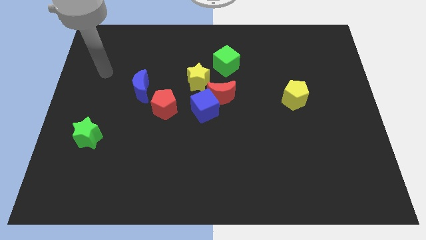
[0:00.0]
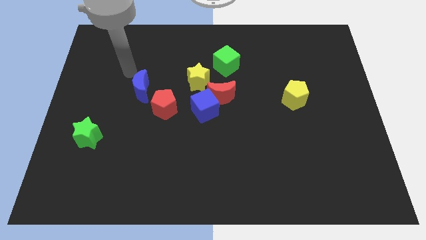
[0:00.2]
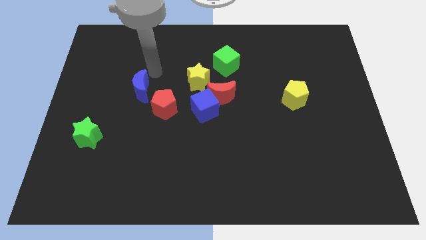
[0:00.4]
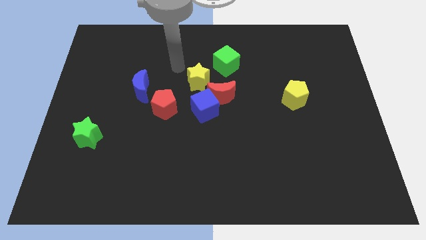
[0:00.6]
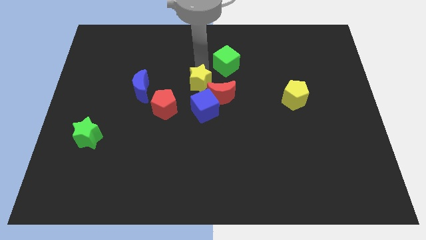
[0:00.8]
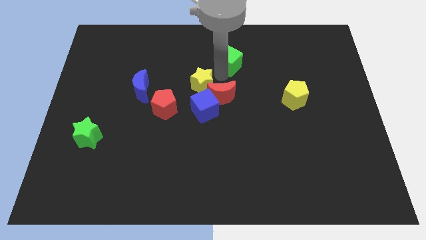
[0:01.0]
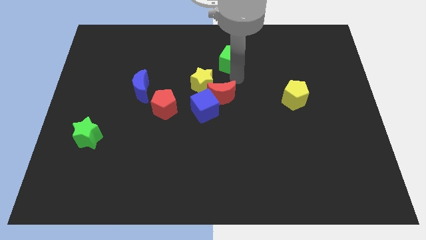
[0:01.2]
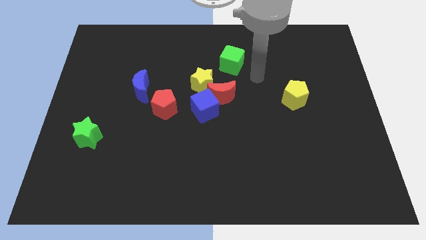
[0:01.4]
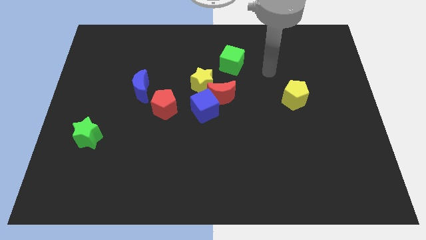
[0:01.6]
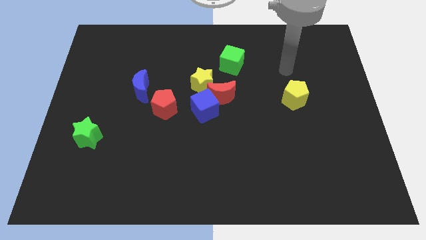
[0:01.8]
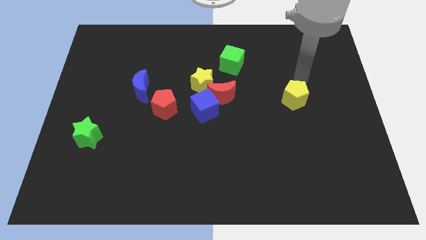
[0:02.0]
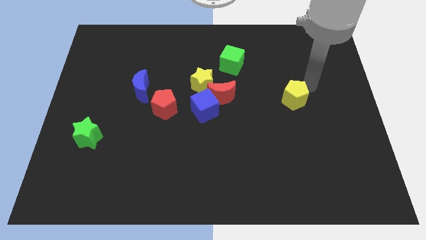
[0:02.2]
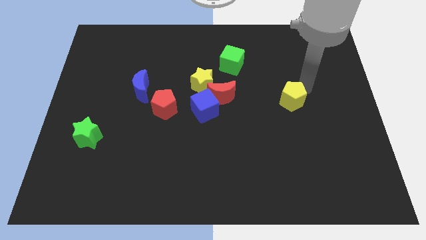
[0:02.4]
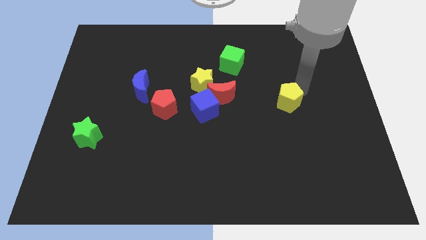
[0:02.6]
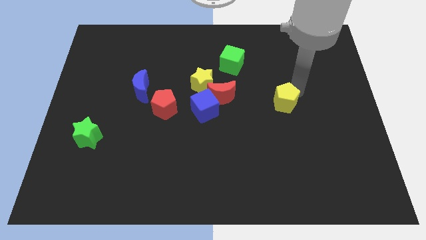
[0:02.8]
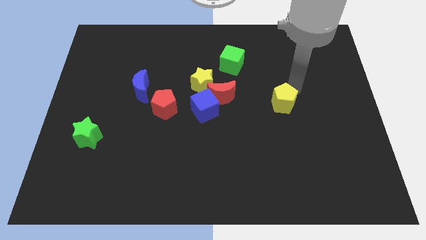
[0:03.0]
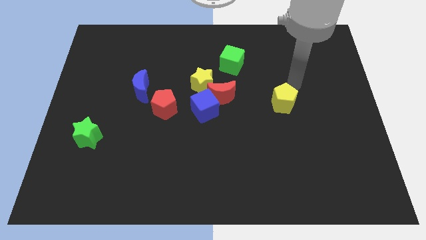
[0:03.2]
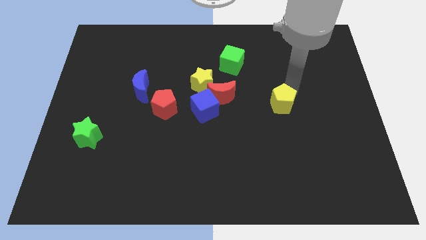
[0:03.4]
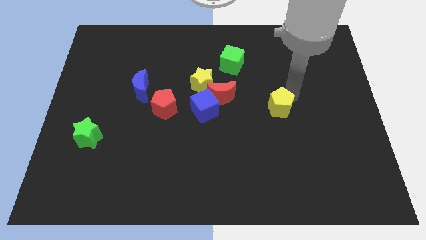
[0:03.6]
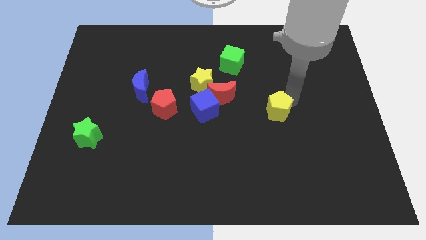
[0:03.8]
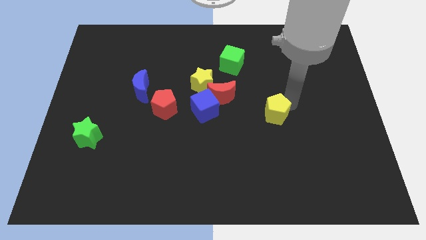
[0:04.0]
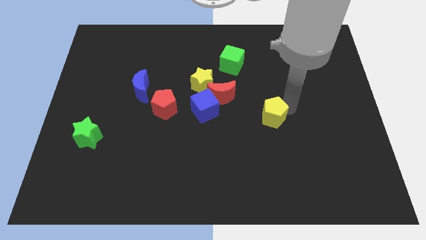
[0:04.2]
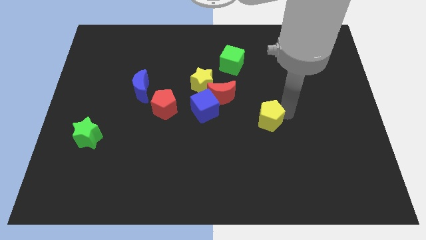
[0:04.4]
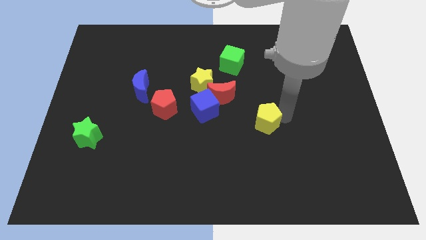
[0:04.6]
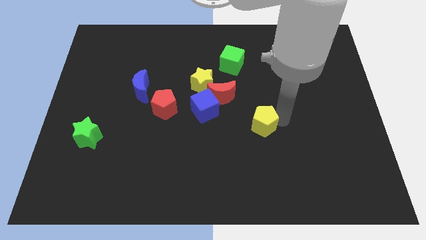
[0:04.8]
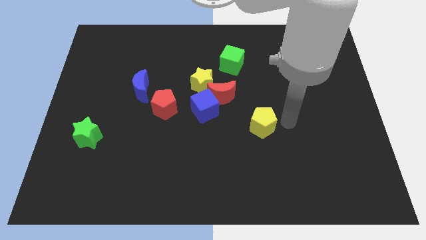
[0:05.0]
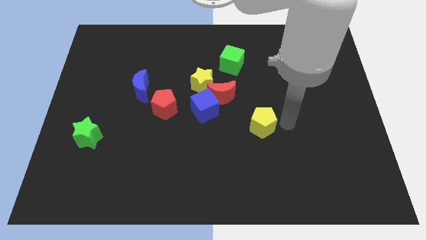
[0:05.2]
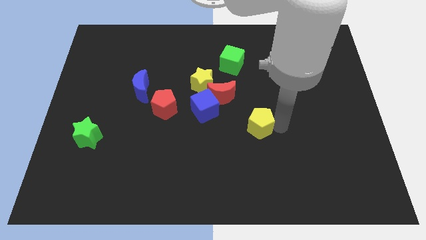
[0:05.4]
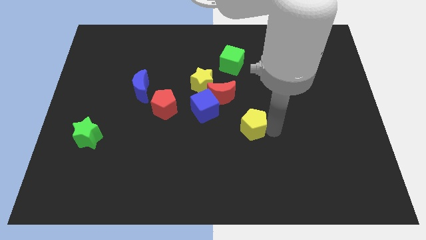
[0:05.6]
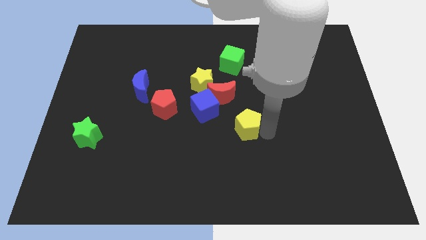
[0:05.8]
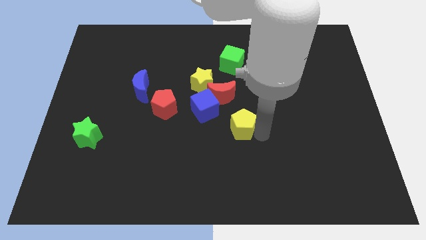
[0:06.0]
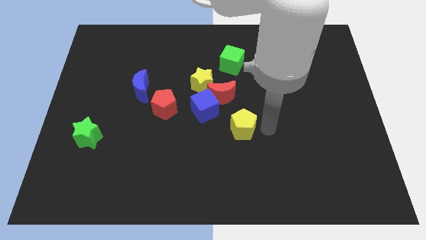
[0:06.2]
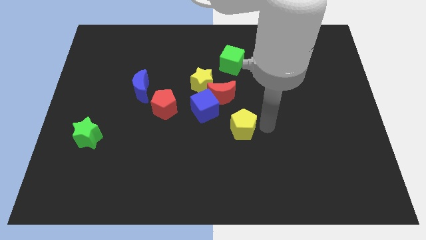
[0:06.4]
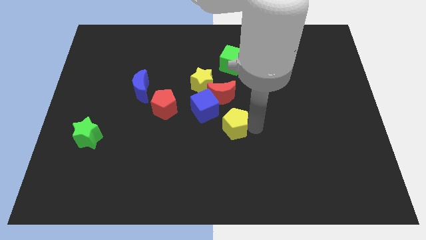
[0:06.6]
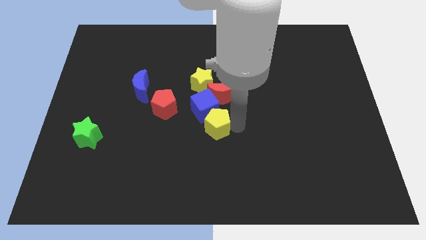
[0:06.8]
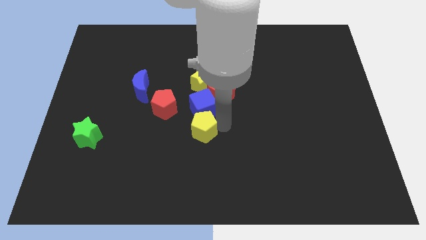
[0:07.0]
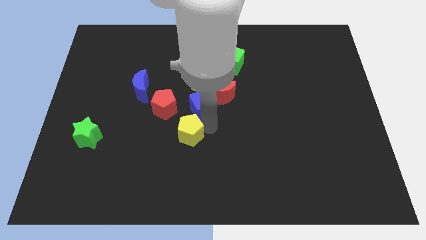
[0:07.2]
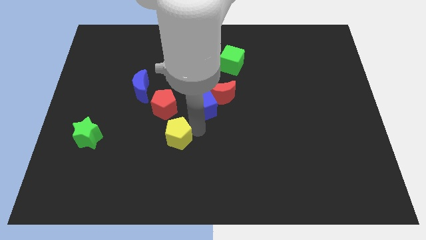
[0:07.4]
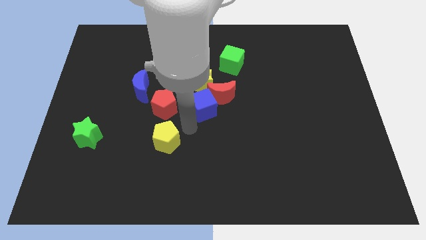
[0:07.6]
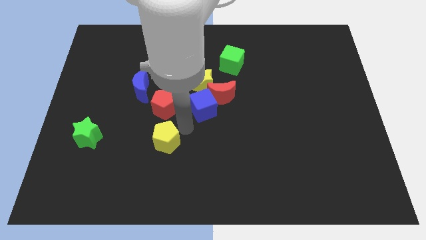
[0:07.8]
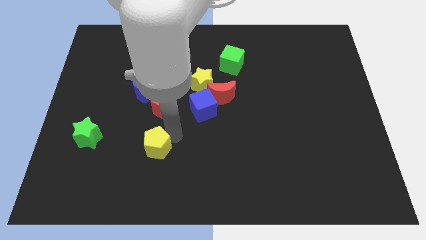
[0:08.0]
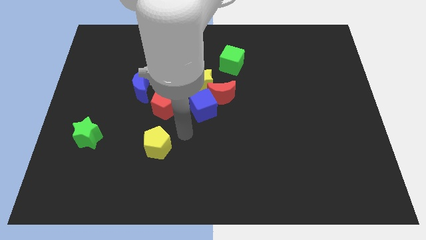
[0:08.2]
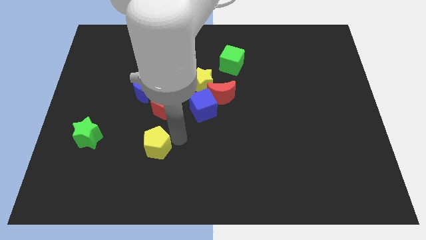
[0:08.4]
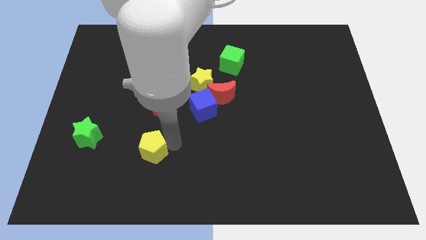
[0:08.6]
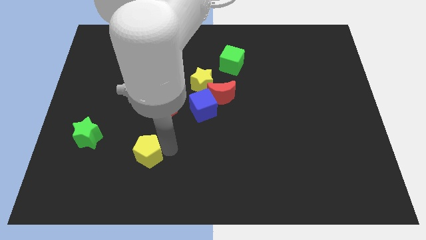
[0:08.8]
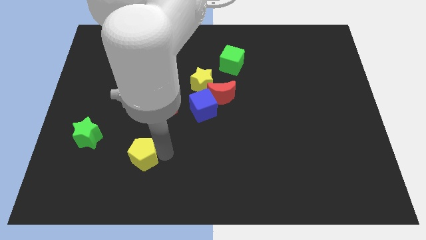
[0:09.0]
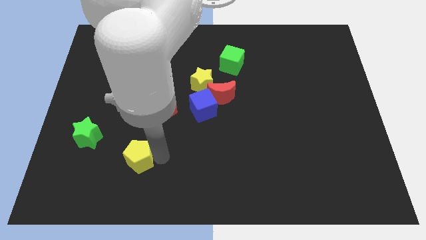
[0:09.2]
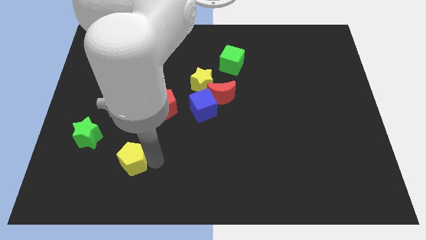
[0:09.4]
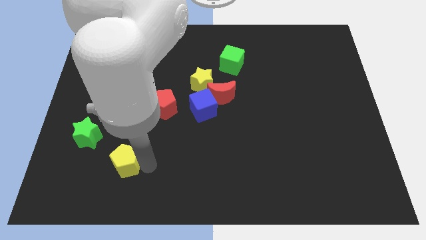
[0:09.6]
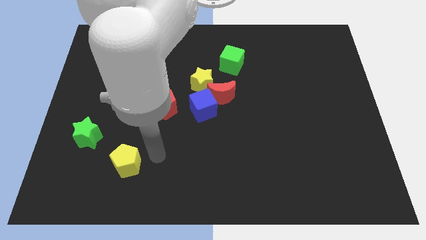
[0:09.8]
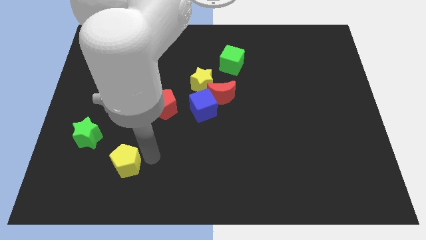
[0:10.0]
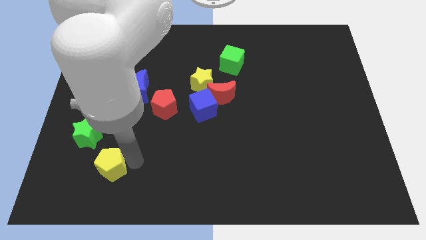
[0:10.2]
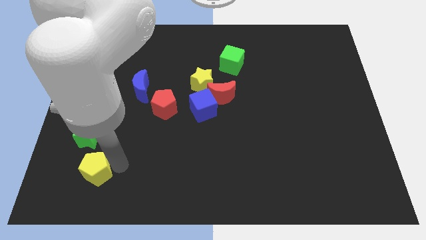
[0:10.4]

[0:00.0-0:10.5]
put the yellow pentagon below the green star

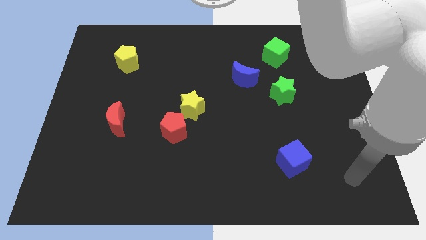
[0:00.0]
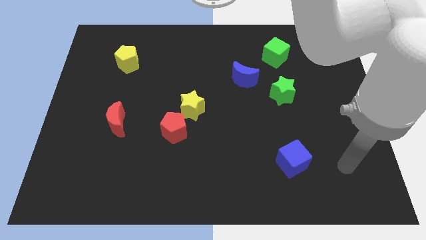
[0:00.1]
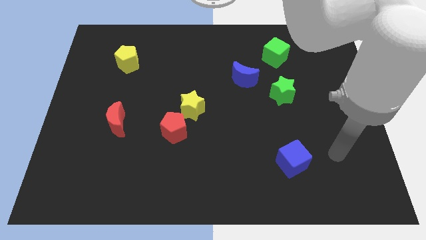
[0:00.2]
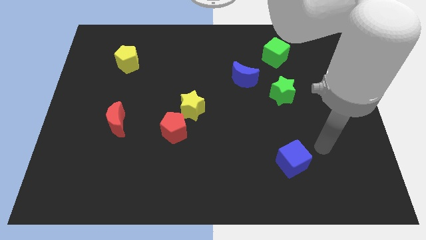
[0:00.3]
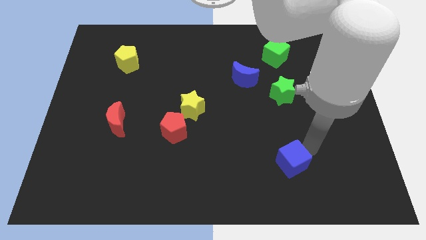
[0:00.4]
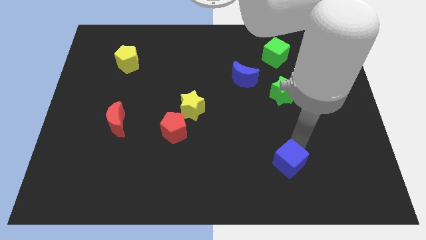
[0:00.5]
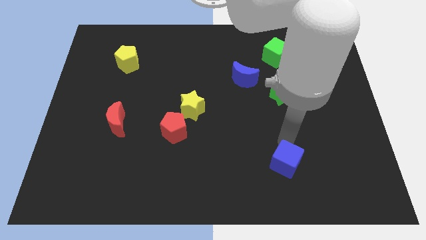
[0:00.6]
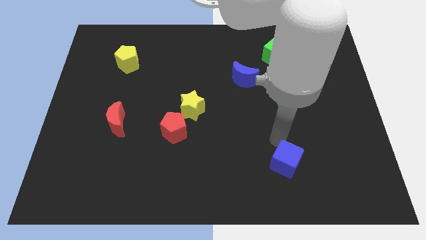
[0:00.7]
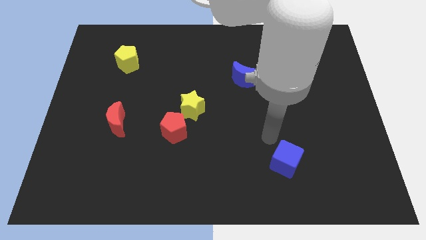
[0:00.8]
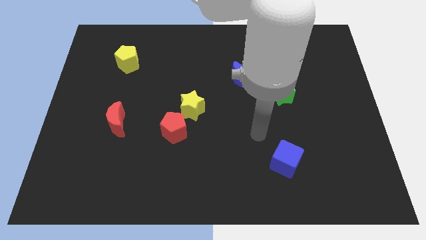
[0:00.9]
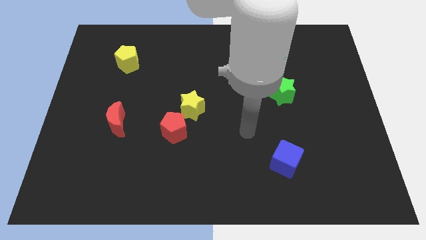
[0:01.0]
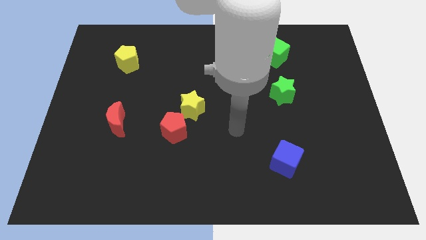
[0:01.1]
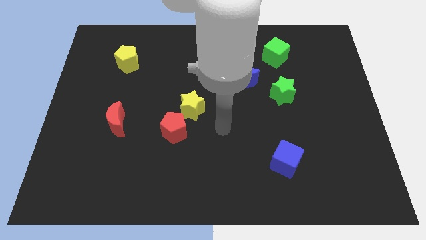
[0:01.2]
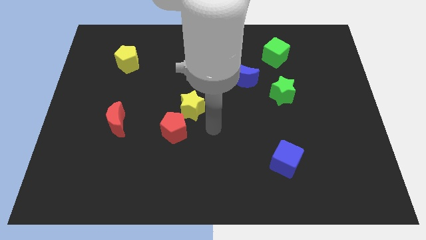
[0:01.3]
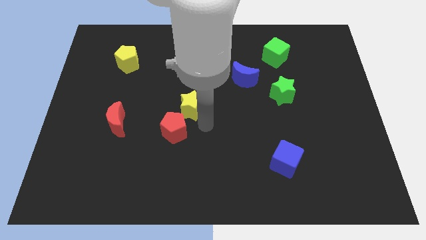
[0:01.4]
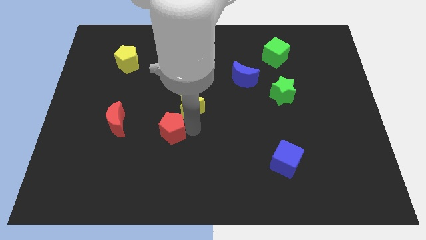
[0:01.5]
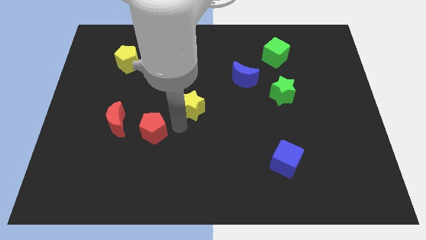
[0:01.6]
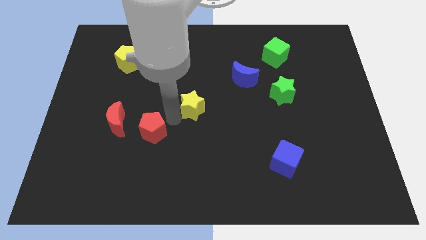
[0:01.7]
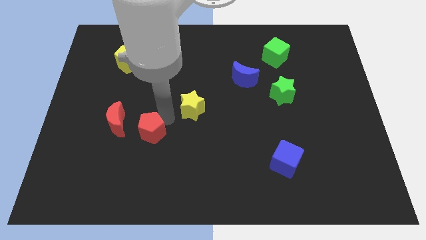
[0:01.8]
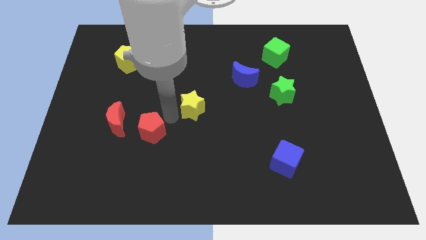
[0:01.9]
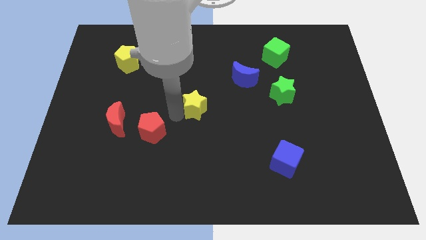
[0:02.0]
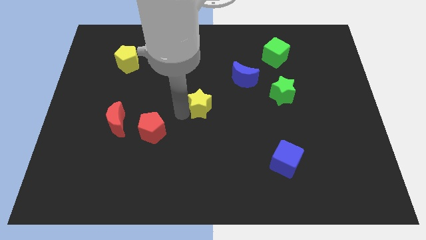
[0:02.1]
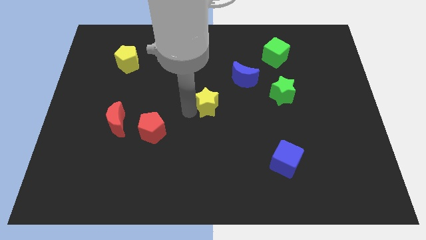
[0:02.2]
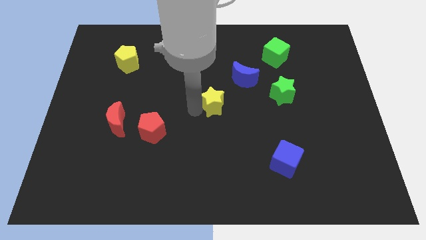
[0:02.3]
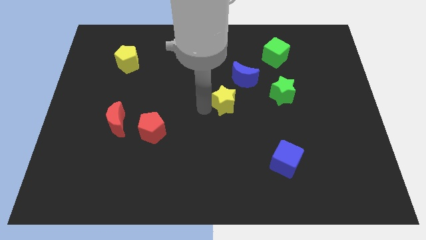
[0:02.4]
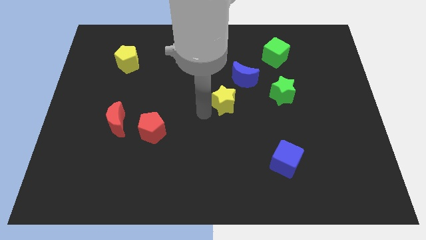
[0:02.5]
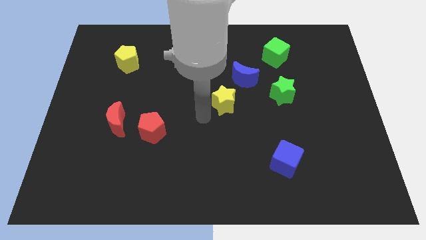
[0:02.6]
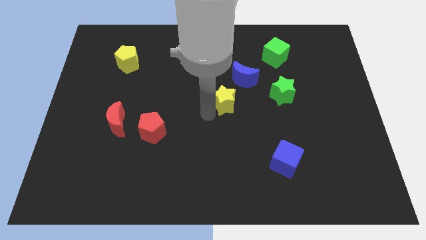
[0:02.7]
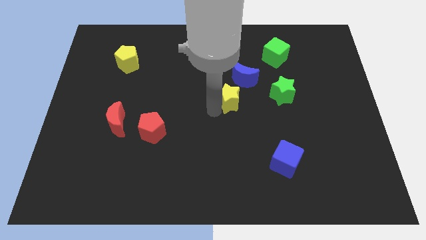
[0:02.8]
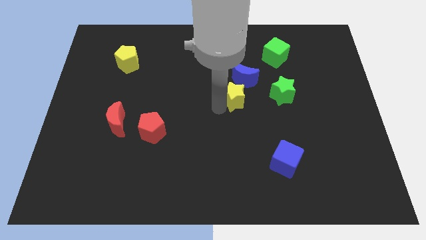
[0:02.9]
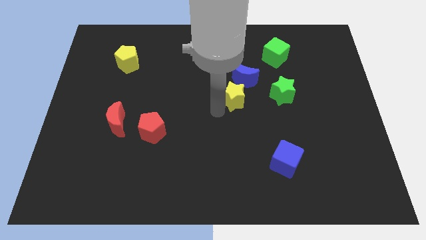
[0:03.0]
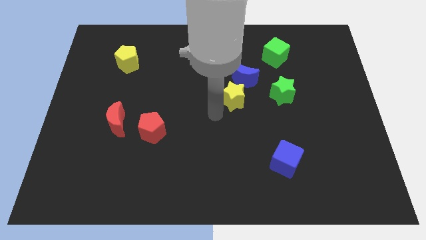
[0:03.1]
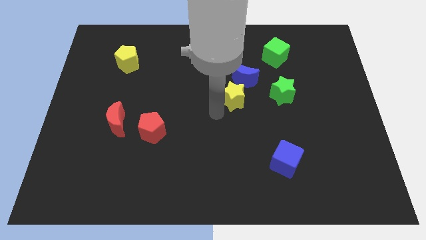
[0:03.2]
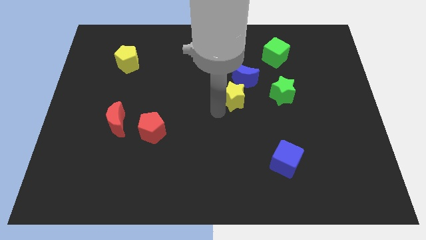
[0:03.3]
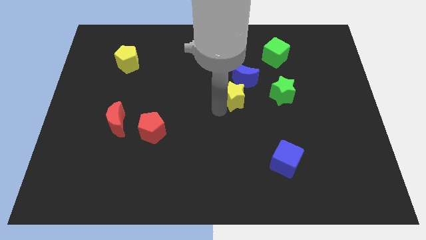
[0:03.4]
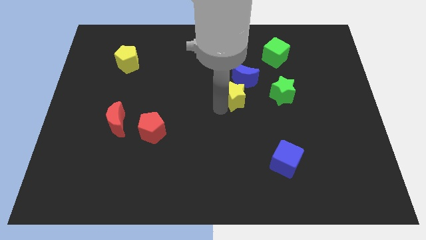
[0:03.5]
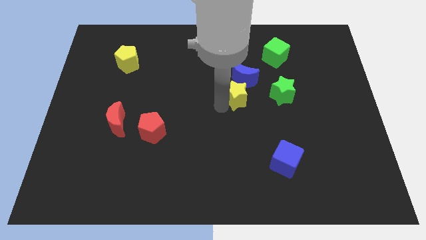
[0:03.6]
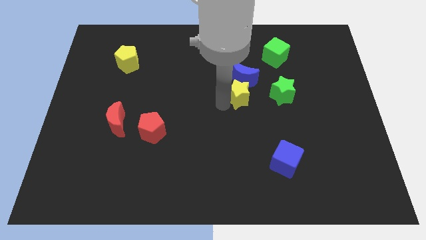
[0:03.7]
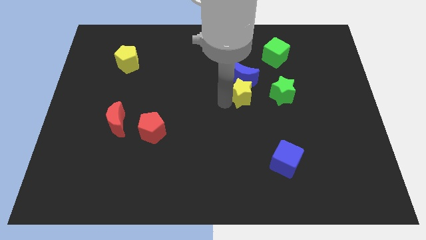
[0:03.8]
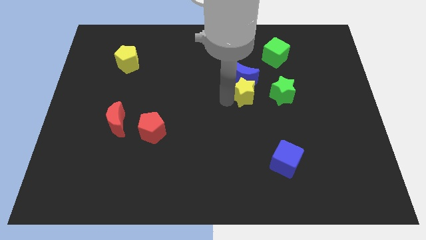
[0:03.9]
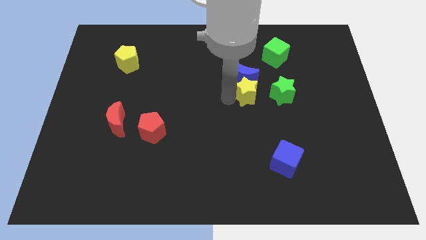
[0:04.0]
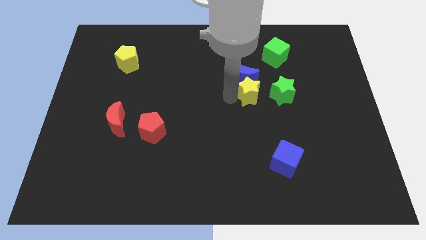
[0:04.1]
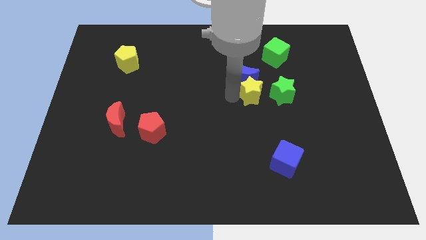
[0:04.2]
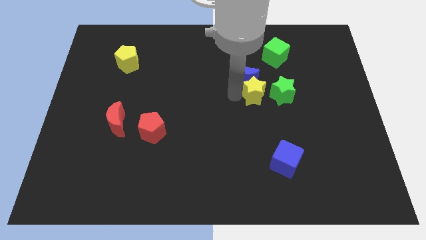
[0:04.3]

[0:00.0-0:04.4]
slide the yellow star to the top left of the green star
